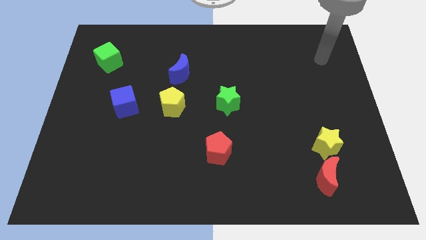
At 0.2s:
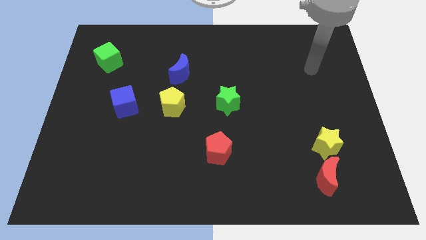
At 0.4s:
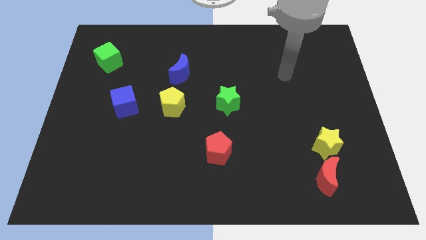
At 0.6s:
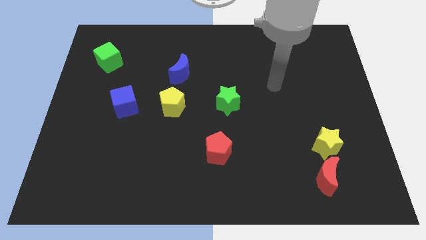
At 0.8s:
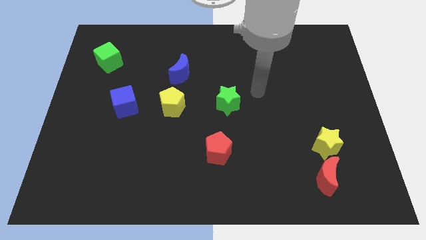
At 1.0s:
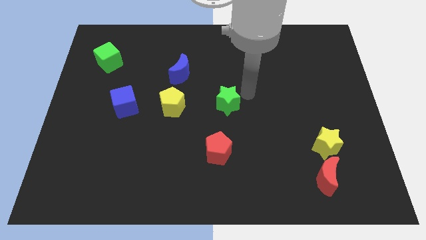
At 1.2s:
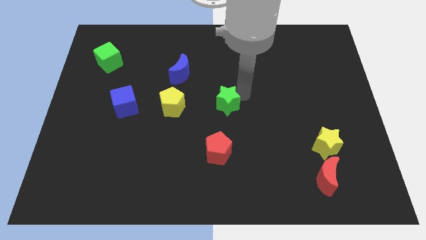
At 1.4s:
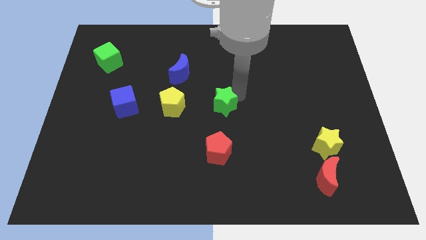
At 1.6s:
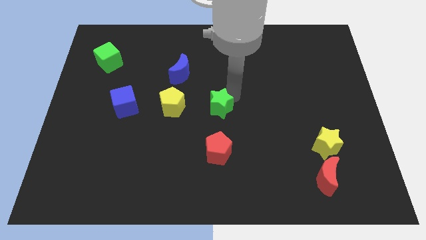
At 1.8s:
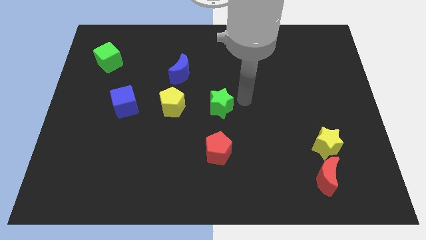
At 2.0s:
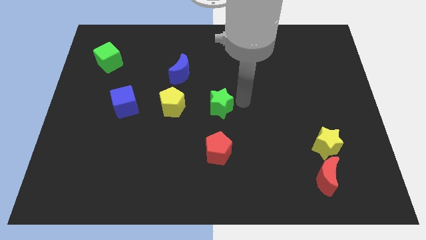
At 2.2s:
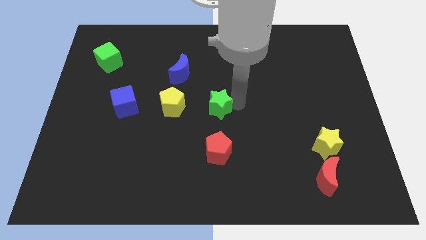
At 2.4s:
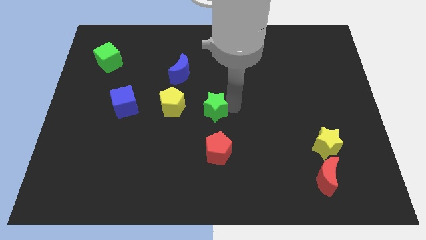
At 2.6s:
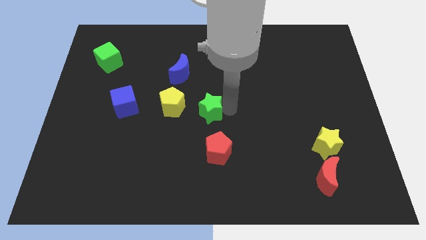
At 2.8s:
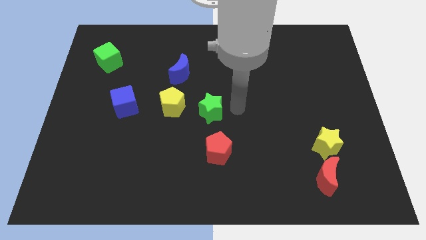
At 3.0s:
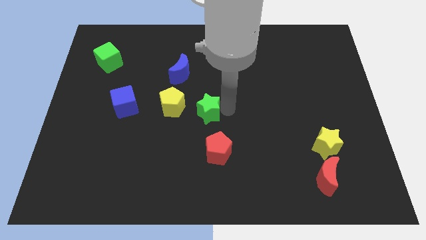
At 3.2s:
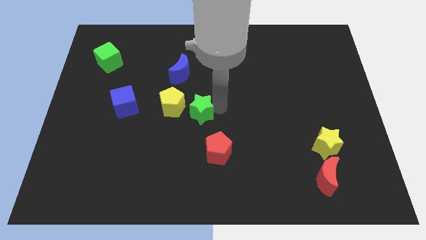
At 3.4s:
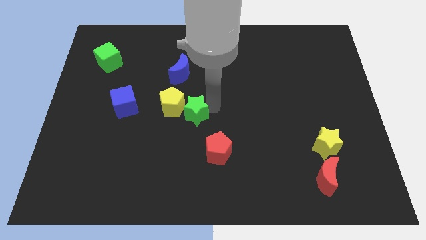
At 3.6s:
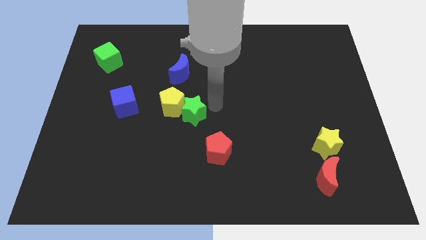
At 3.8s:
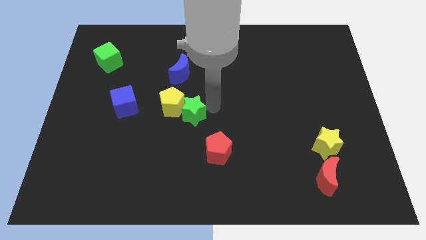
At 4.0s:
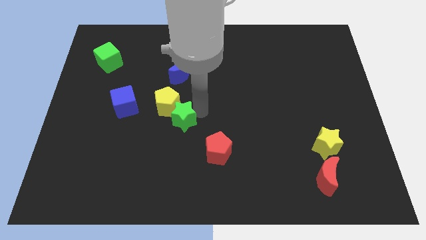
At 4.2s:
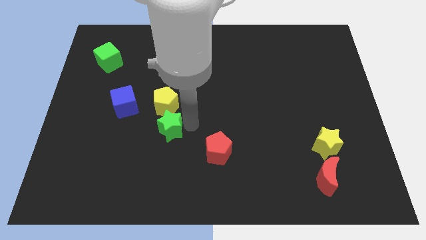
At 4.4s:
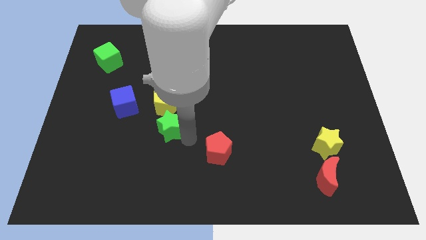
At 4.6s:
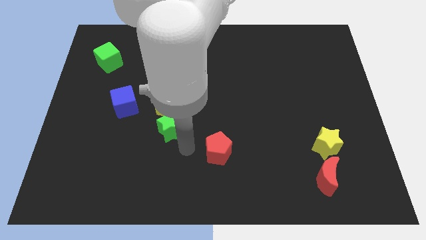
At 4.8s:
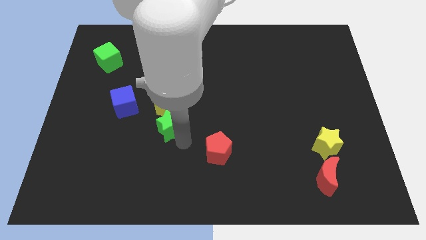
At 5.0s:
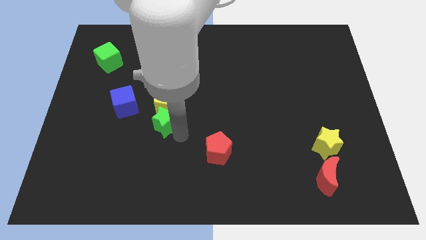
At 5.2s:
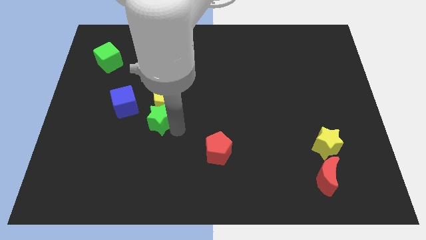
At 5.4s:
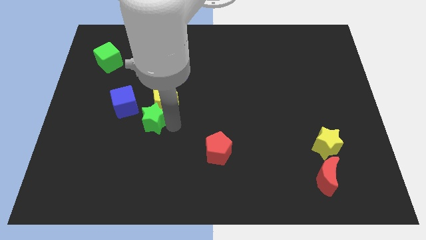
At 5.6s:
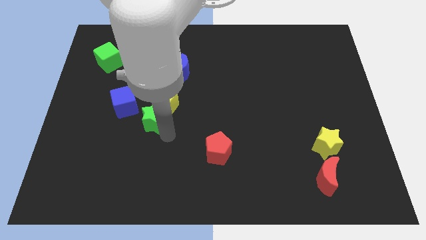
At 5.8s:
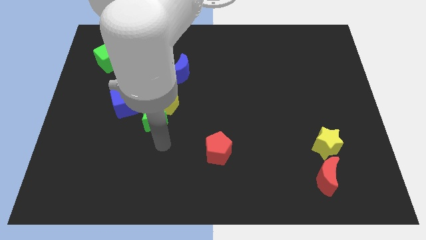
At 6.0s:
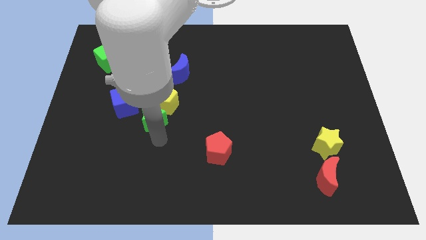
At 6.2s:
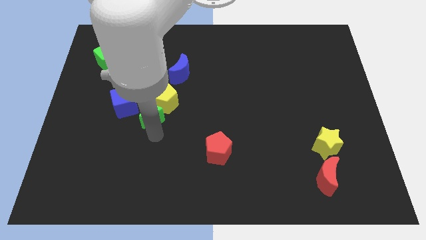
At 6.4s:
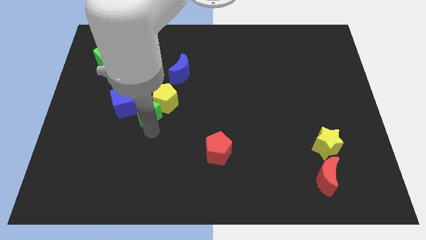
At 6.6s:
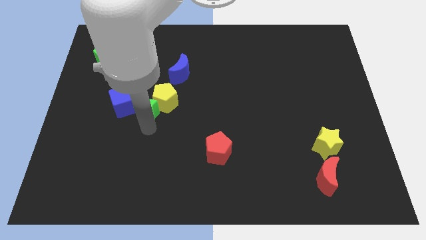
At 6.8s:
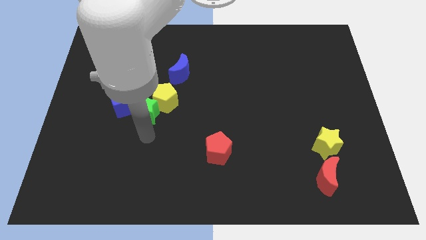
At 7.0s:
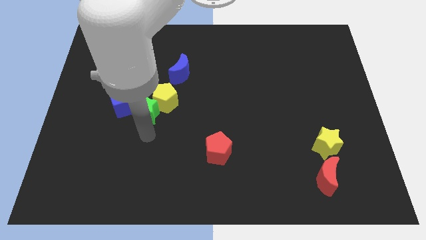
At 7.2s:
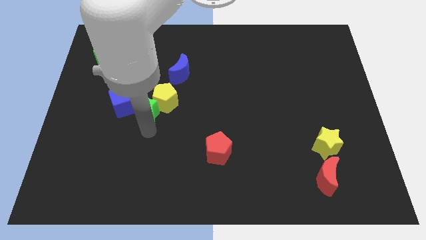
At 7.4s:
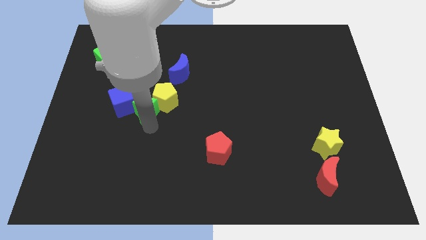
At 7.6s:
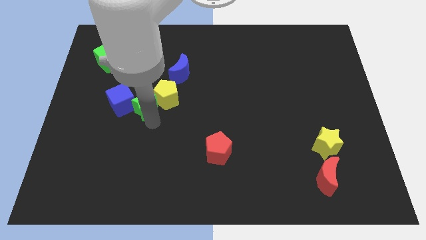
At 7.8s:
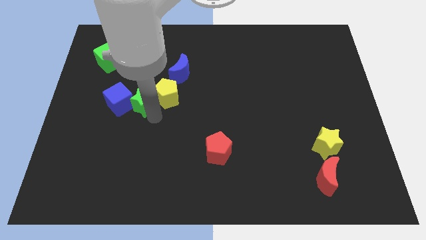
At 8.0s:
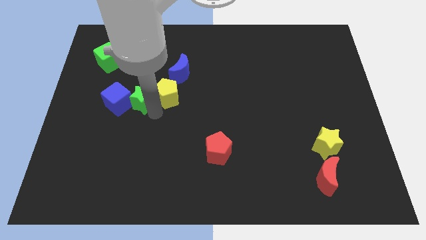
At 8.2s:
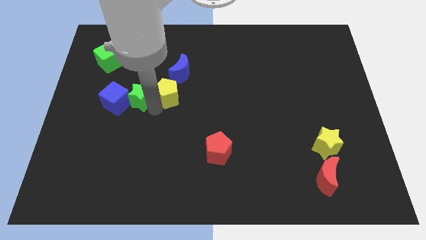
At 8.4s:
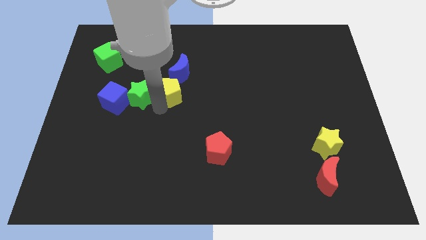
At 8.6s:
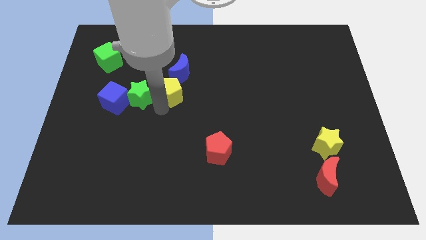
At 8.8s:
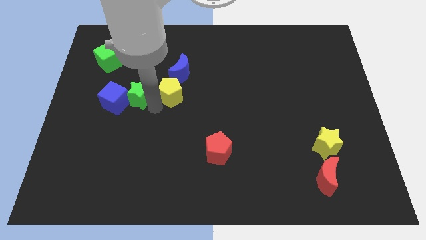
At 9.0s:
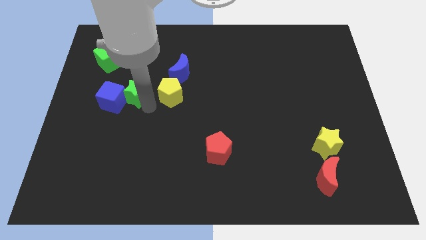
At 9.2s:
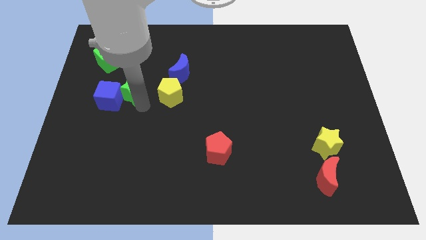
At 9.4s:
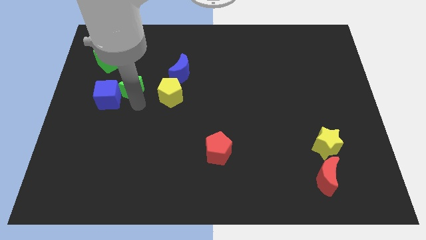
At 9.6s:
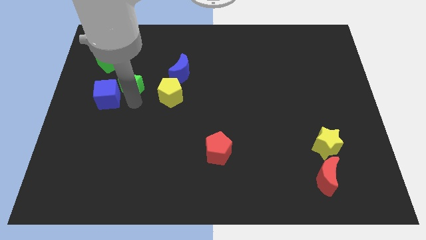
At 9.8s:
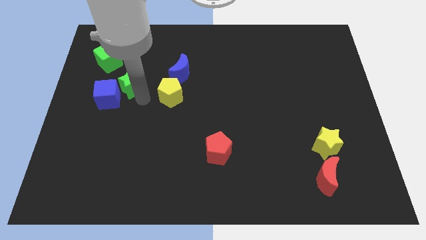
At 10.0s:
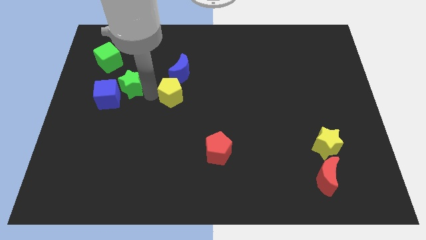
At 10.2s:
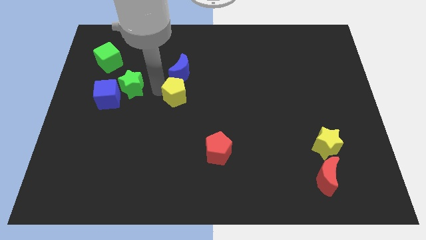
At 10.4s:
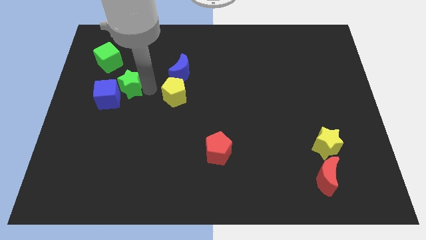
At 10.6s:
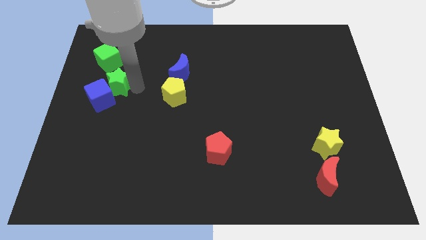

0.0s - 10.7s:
slide the green star below the green cube

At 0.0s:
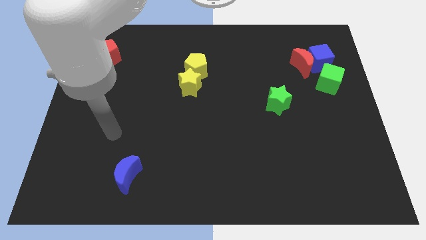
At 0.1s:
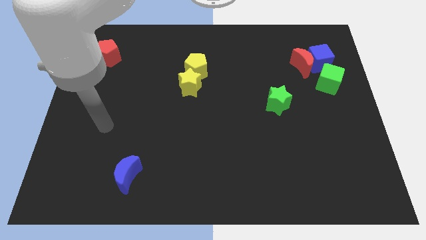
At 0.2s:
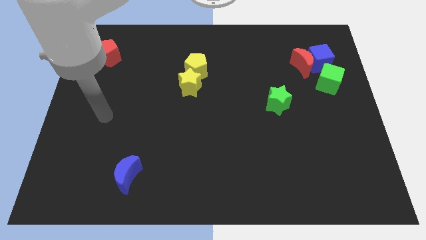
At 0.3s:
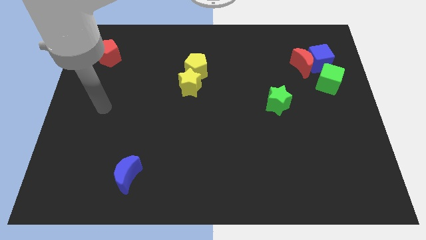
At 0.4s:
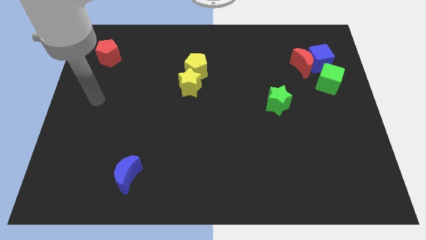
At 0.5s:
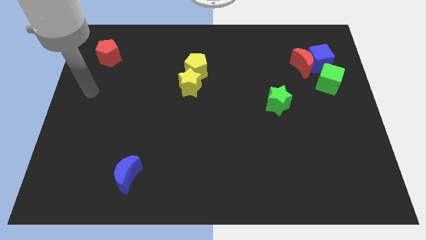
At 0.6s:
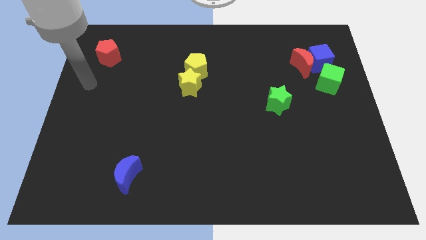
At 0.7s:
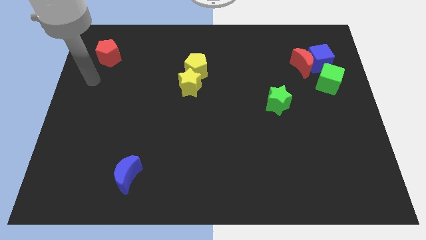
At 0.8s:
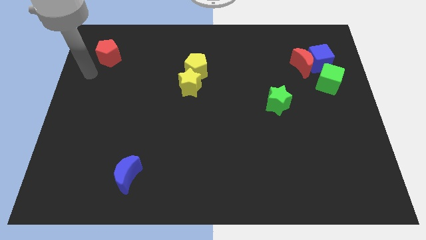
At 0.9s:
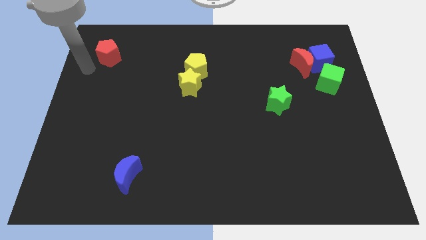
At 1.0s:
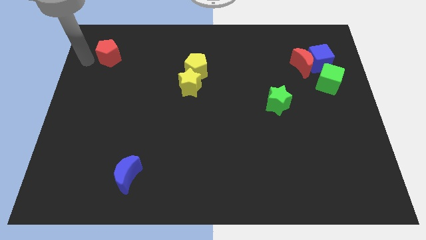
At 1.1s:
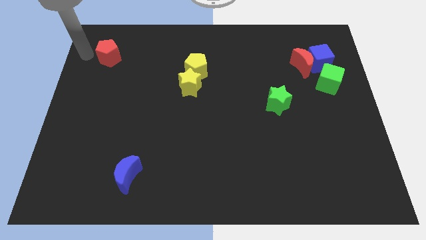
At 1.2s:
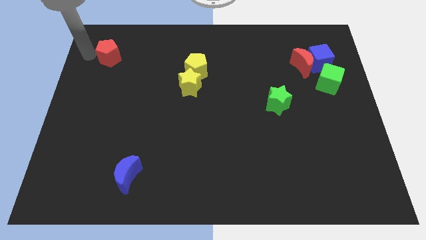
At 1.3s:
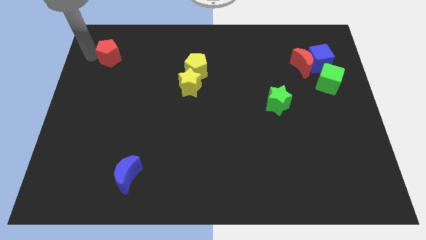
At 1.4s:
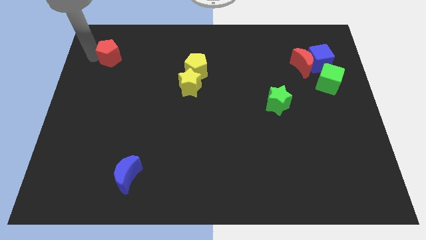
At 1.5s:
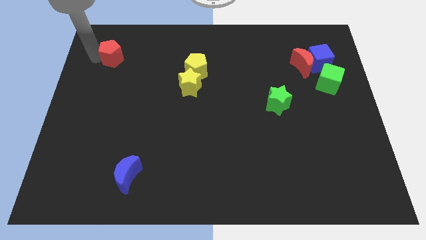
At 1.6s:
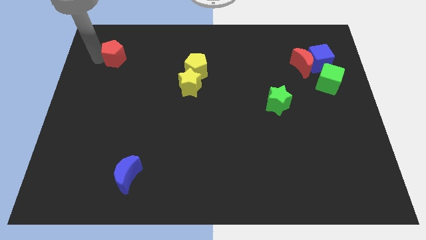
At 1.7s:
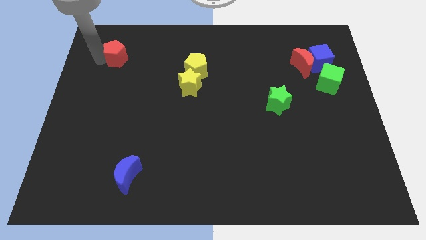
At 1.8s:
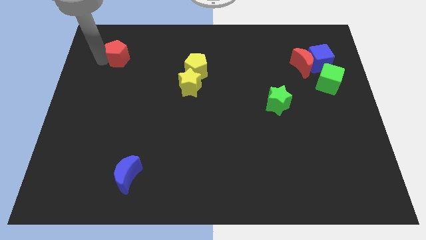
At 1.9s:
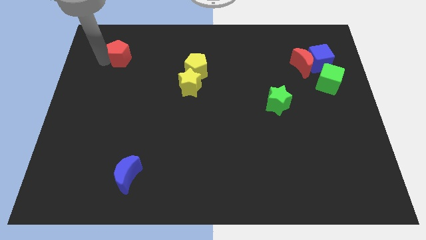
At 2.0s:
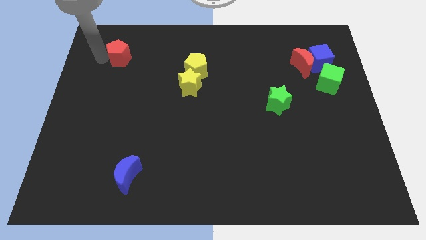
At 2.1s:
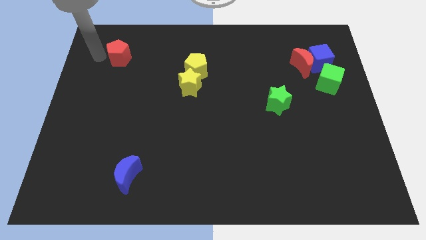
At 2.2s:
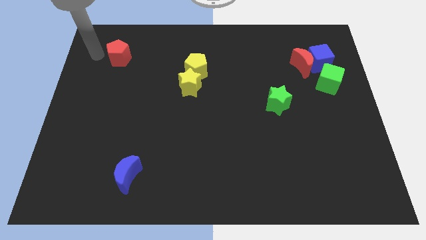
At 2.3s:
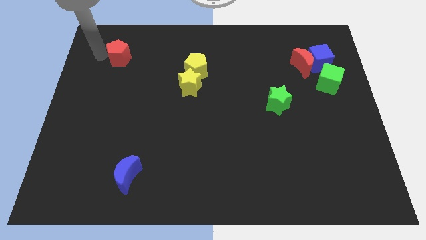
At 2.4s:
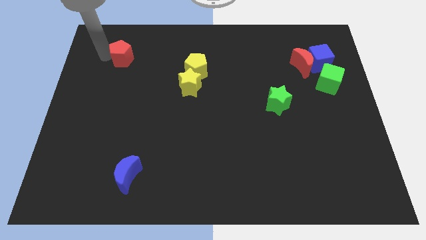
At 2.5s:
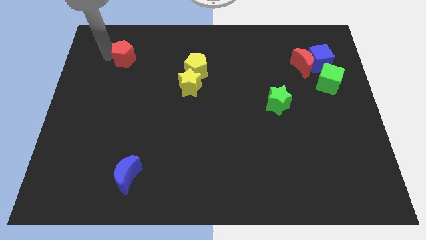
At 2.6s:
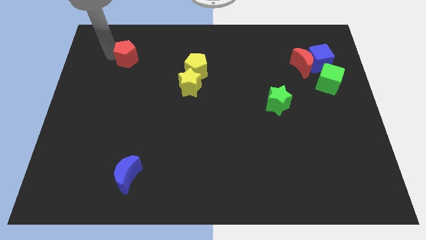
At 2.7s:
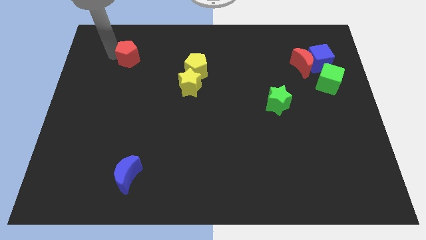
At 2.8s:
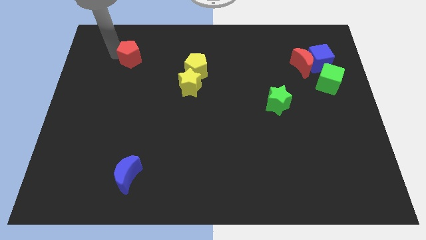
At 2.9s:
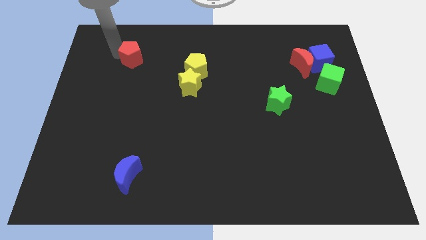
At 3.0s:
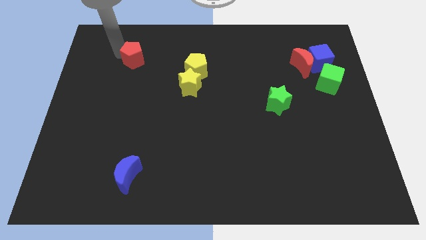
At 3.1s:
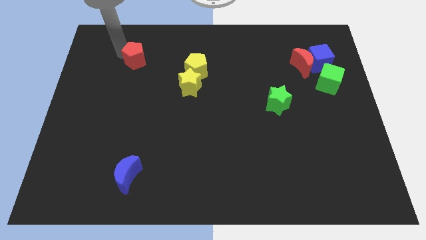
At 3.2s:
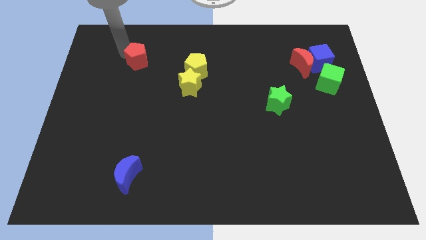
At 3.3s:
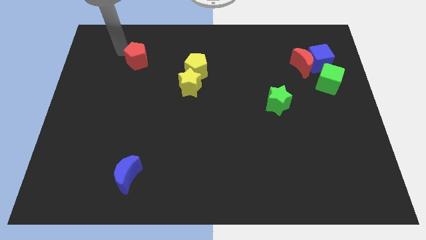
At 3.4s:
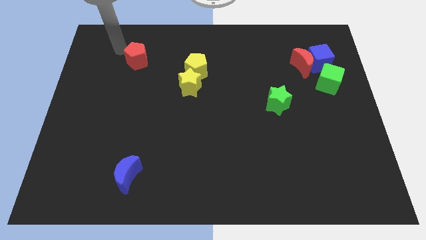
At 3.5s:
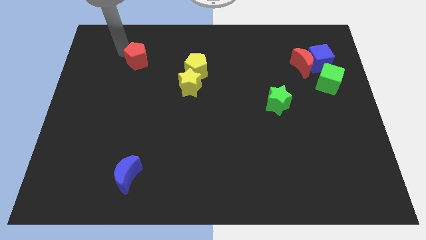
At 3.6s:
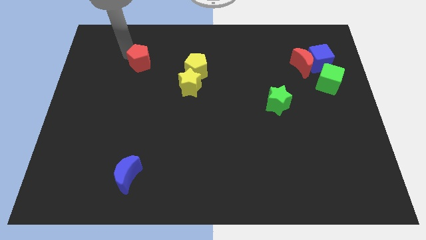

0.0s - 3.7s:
push the red pentagon just left of the yellow pentagon
